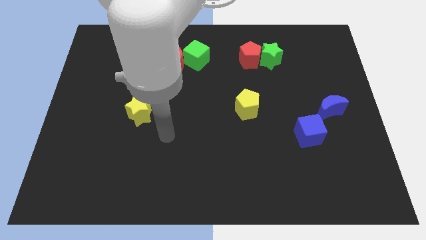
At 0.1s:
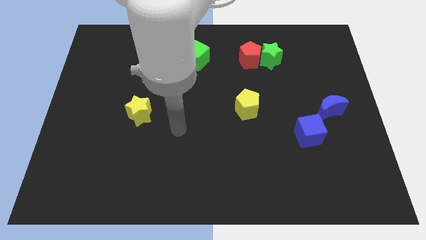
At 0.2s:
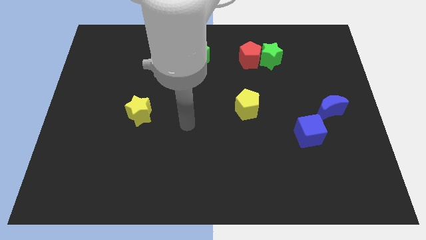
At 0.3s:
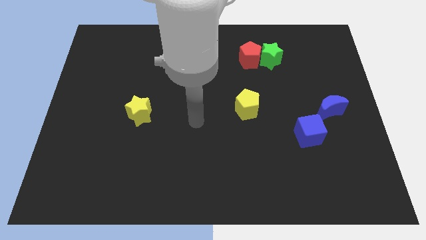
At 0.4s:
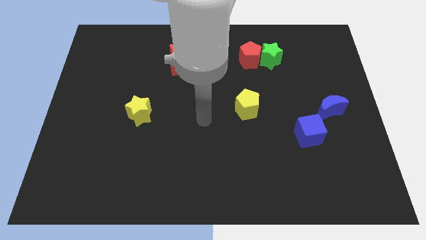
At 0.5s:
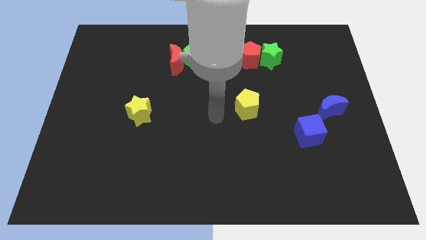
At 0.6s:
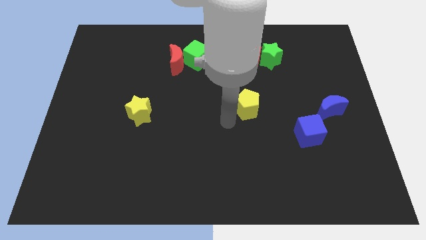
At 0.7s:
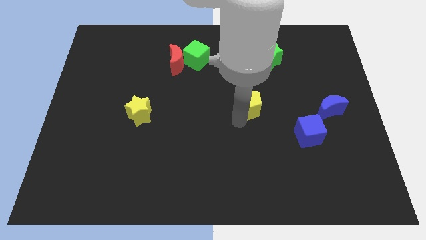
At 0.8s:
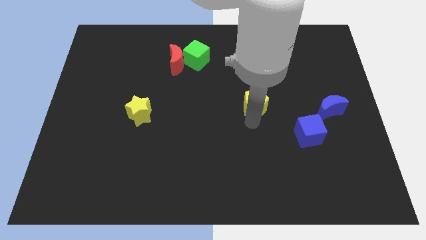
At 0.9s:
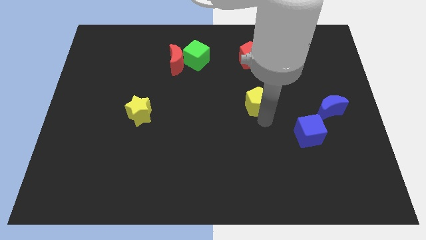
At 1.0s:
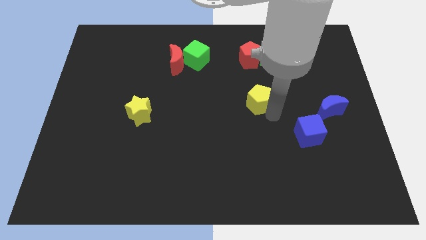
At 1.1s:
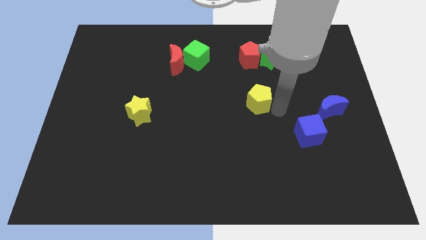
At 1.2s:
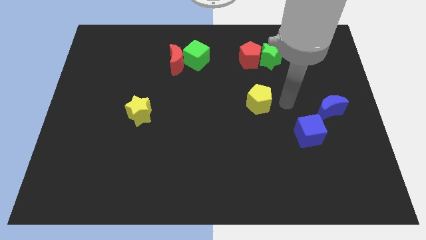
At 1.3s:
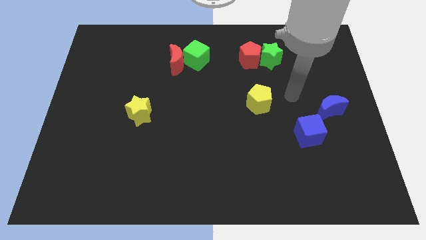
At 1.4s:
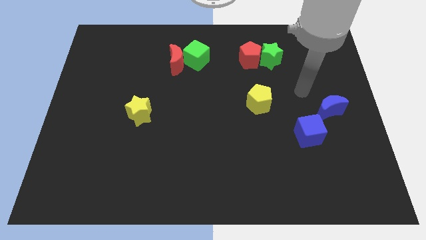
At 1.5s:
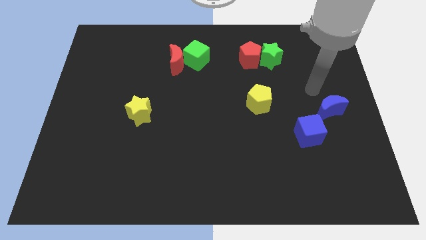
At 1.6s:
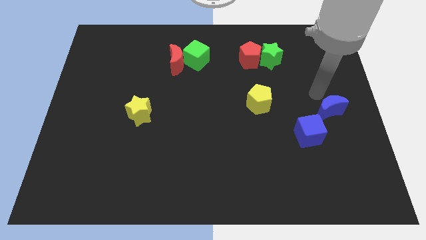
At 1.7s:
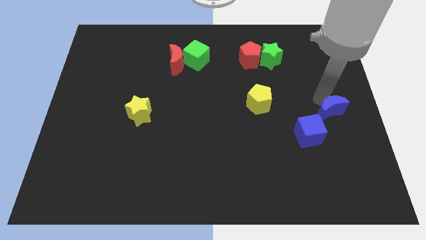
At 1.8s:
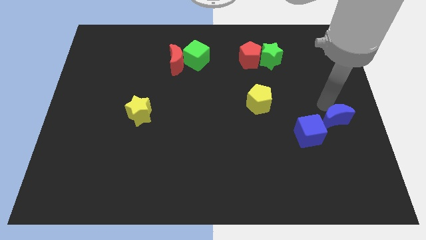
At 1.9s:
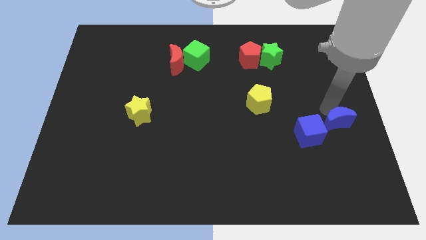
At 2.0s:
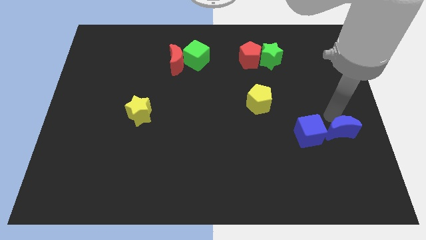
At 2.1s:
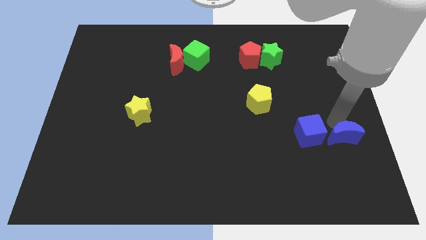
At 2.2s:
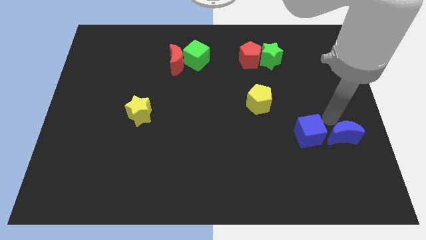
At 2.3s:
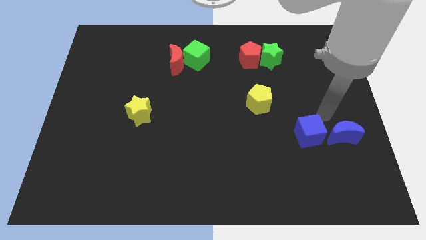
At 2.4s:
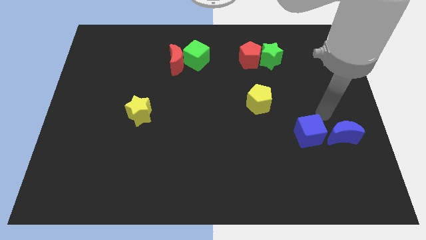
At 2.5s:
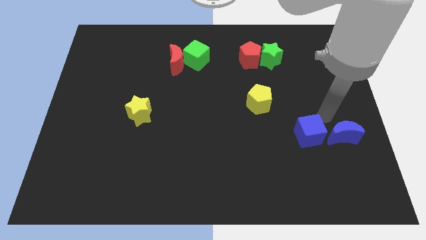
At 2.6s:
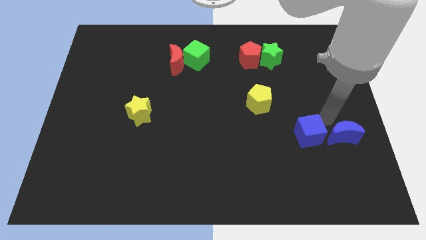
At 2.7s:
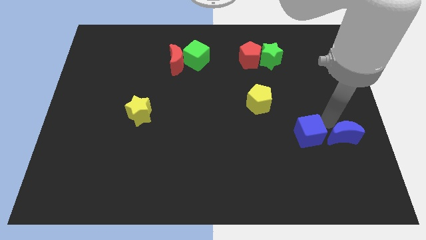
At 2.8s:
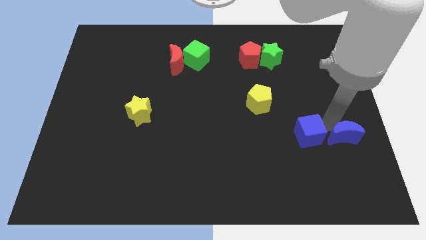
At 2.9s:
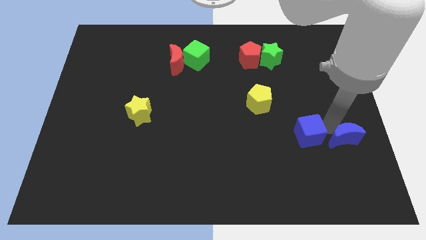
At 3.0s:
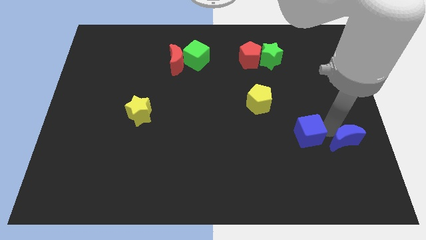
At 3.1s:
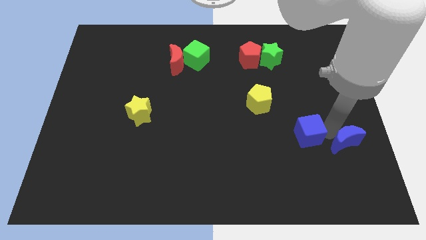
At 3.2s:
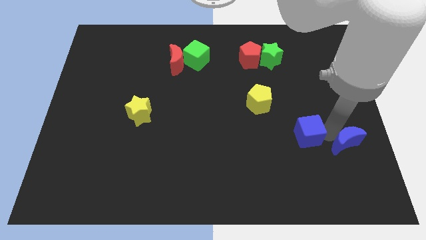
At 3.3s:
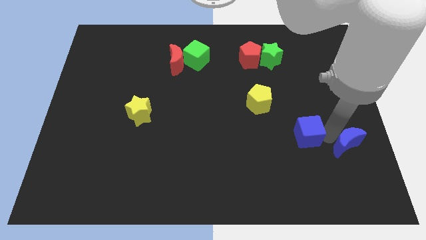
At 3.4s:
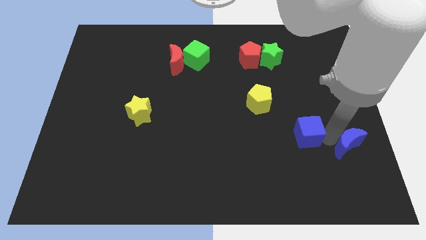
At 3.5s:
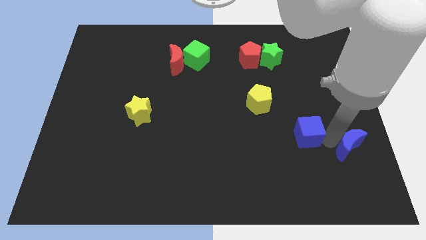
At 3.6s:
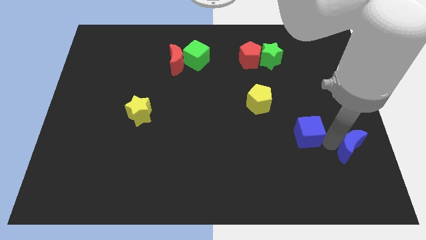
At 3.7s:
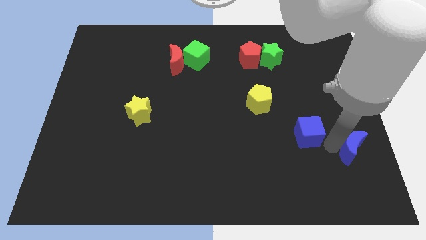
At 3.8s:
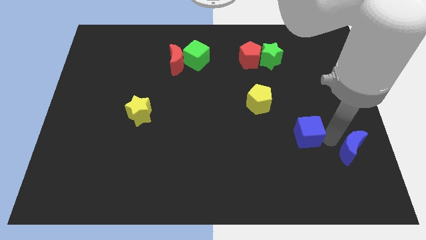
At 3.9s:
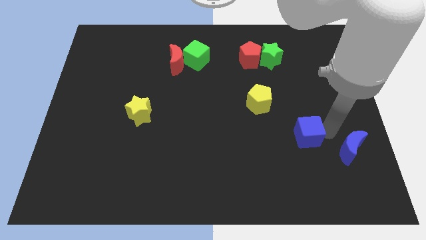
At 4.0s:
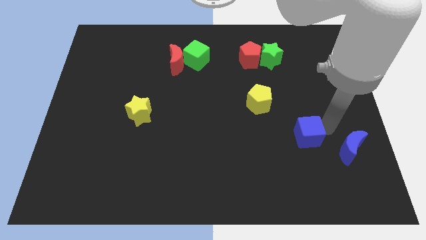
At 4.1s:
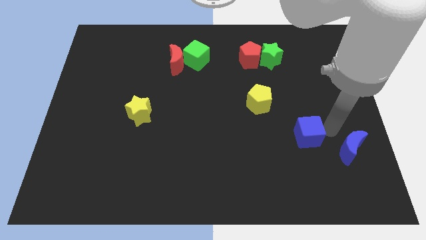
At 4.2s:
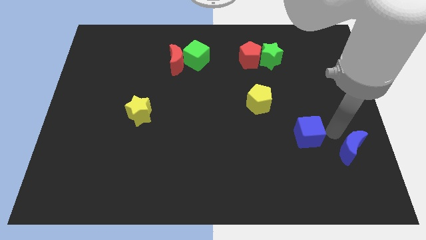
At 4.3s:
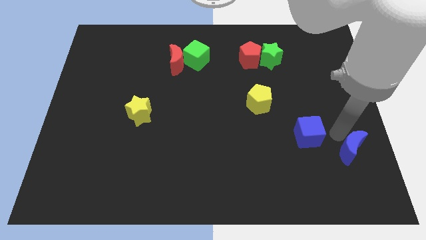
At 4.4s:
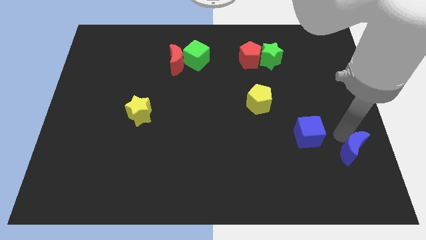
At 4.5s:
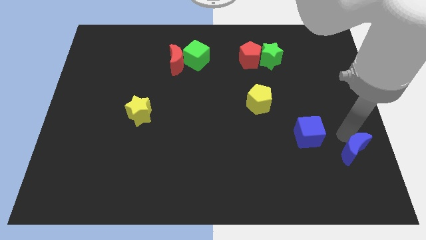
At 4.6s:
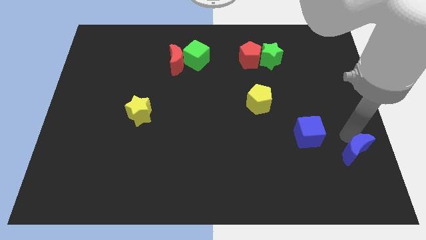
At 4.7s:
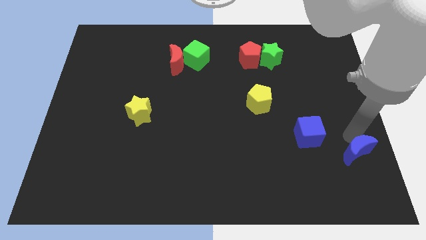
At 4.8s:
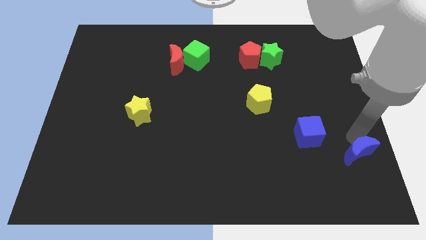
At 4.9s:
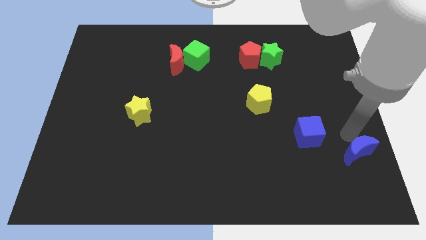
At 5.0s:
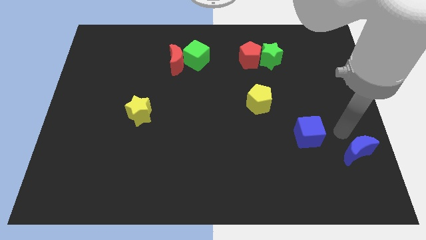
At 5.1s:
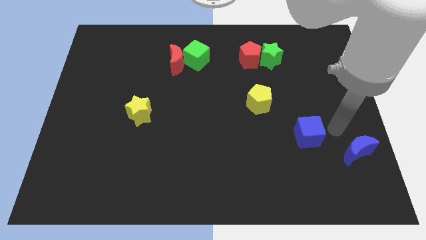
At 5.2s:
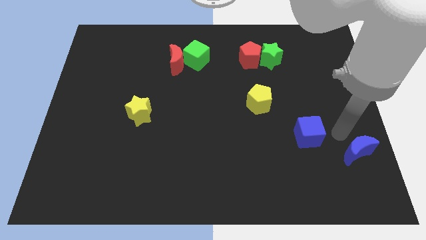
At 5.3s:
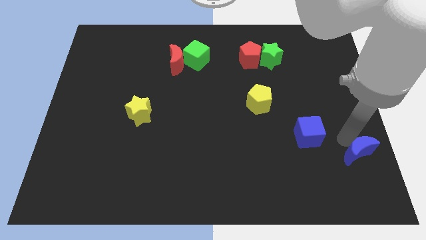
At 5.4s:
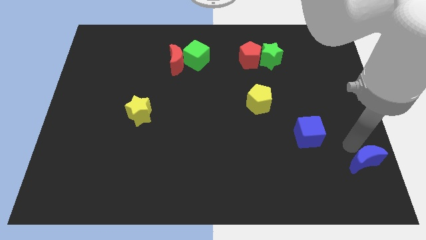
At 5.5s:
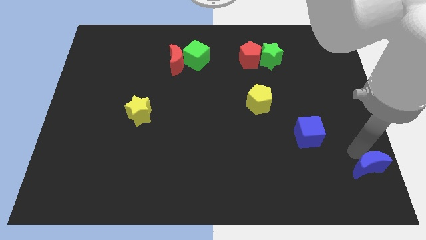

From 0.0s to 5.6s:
put the blue moon to the bottom right

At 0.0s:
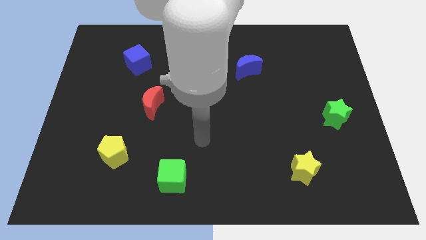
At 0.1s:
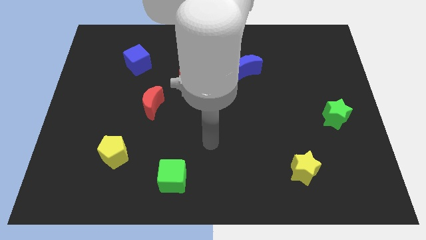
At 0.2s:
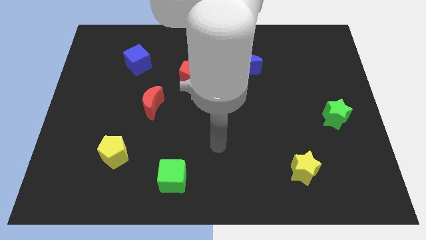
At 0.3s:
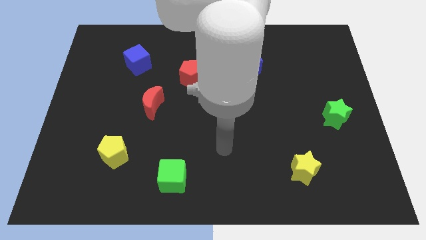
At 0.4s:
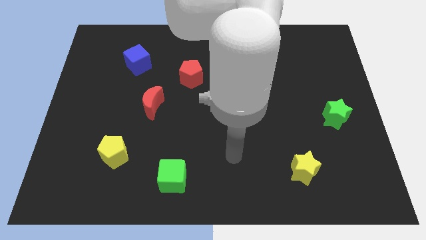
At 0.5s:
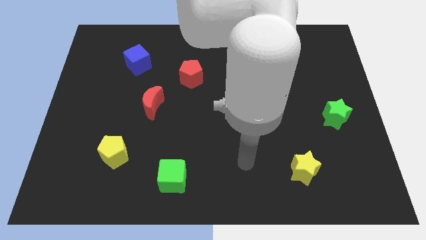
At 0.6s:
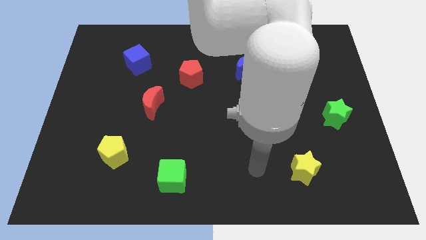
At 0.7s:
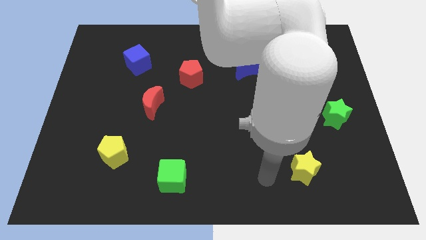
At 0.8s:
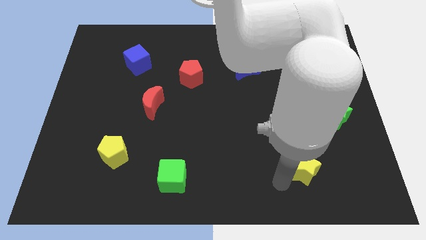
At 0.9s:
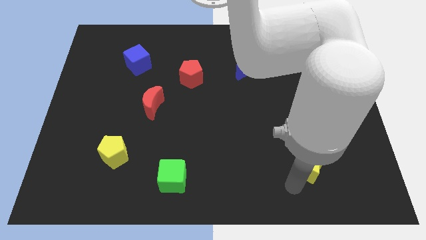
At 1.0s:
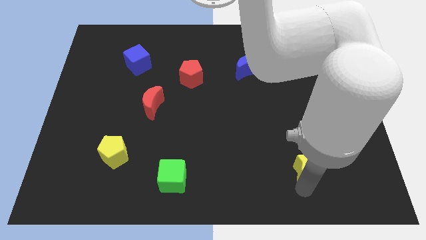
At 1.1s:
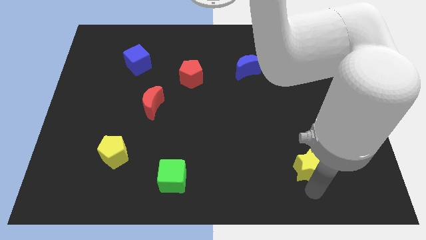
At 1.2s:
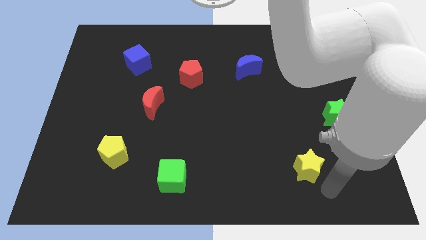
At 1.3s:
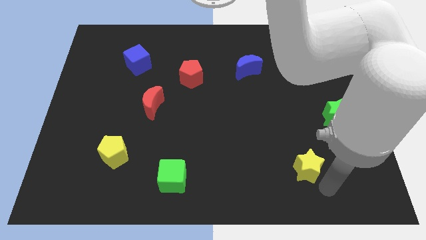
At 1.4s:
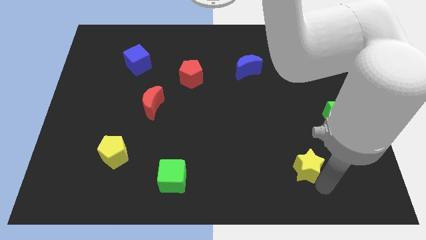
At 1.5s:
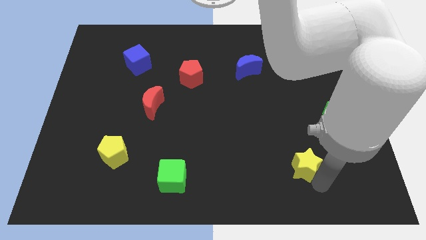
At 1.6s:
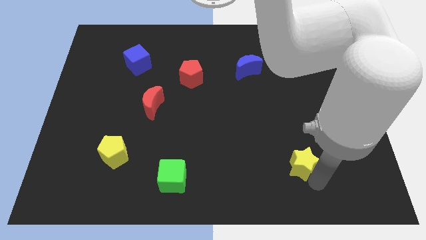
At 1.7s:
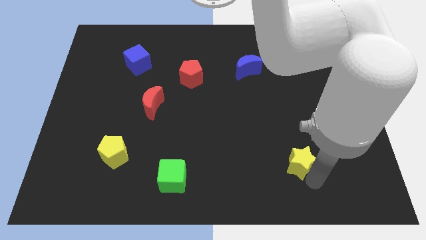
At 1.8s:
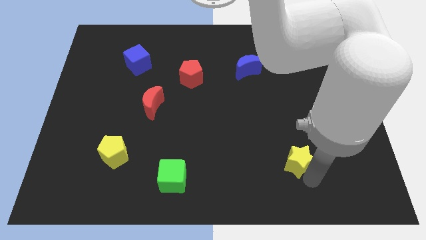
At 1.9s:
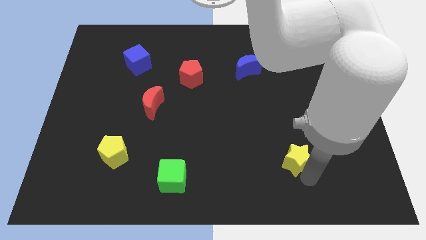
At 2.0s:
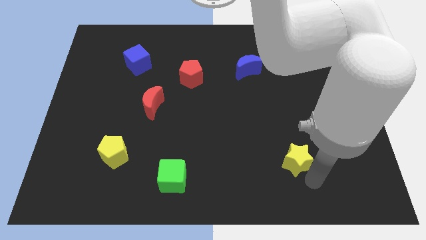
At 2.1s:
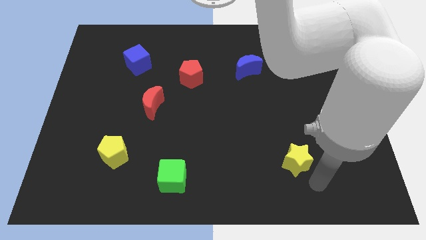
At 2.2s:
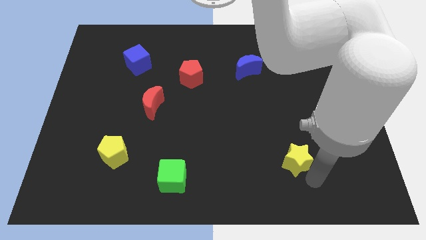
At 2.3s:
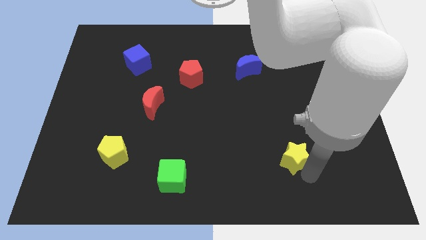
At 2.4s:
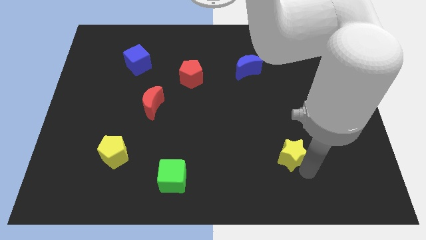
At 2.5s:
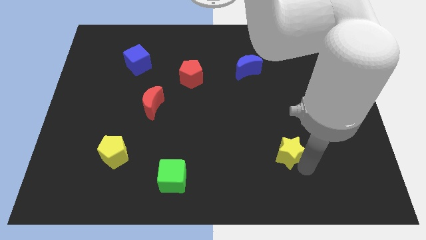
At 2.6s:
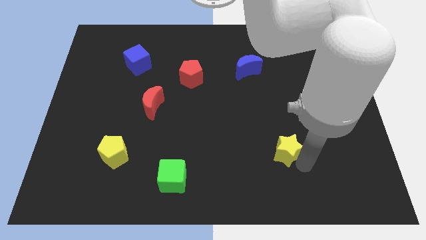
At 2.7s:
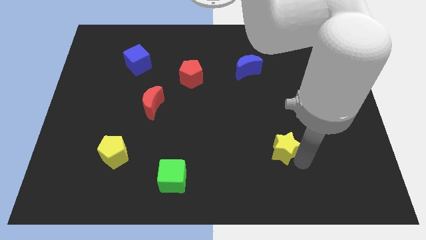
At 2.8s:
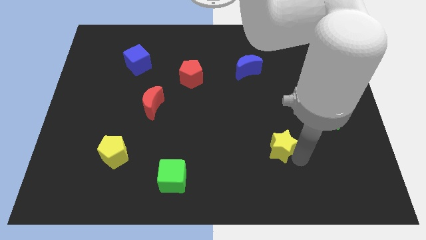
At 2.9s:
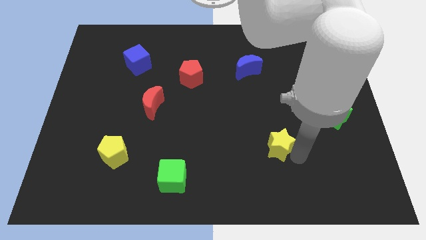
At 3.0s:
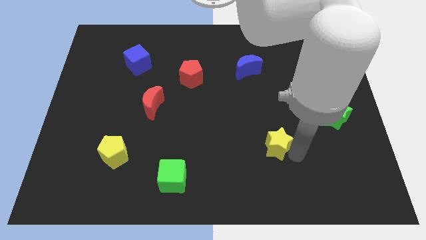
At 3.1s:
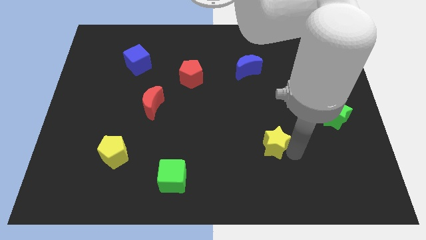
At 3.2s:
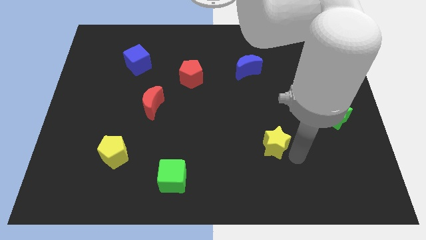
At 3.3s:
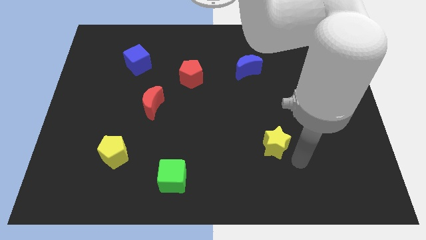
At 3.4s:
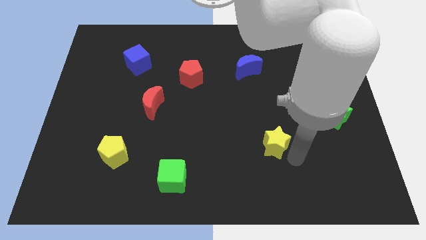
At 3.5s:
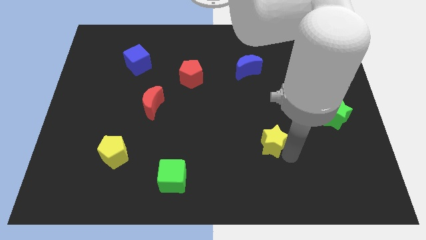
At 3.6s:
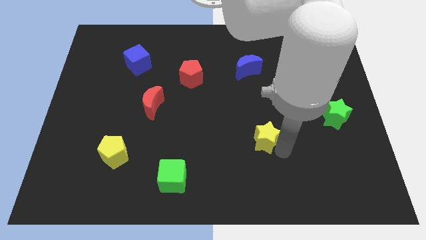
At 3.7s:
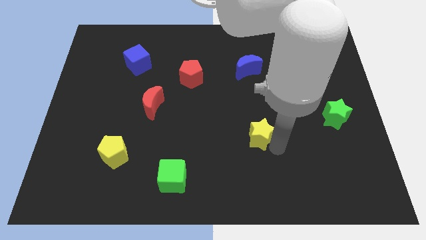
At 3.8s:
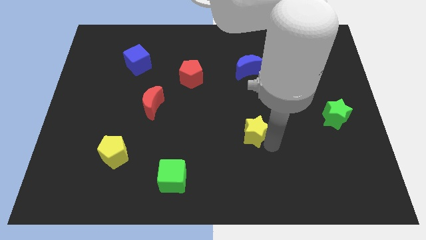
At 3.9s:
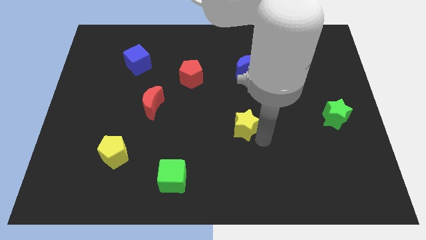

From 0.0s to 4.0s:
slide the yellow star to the center of the board
